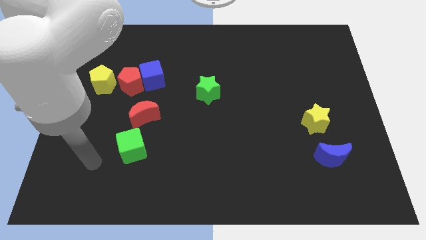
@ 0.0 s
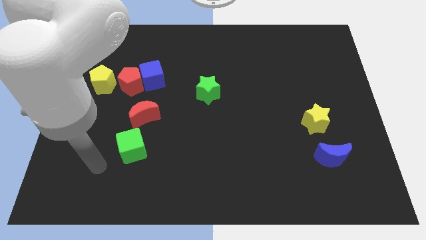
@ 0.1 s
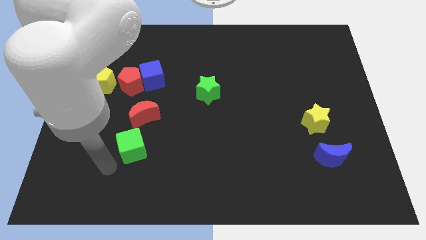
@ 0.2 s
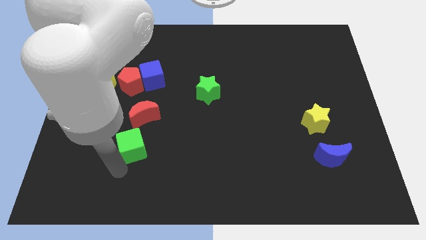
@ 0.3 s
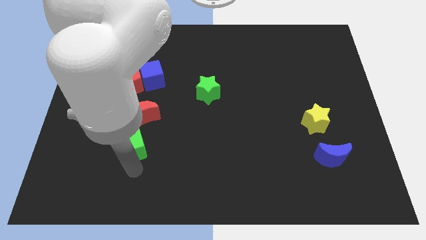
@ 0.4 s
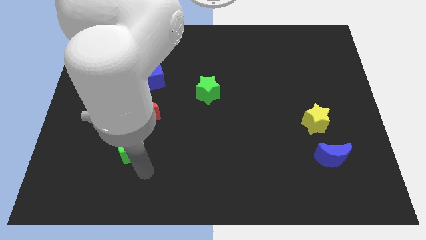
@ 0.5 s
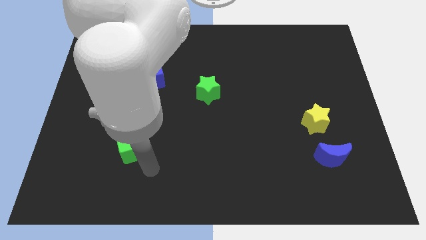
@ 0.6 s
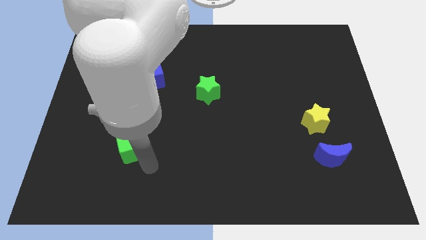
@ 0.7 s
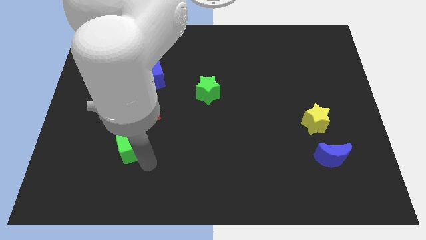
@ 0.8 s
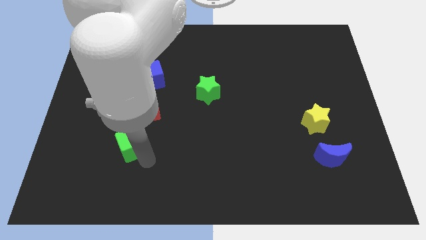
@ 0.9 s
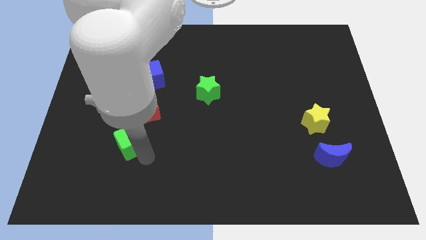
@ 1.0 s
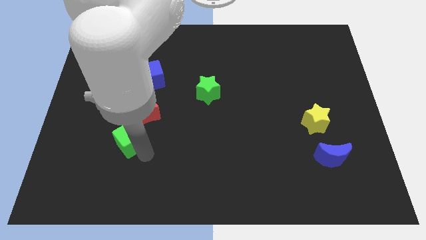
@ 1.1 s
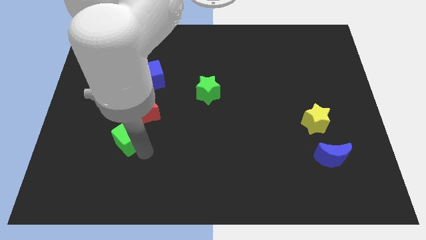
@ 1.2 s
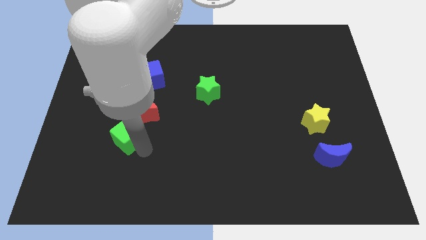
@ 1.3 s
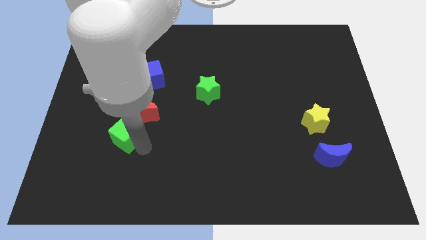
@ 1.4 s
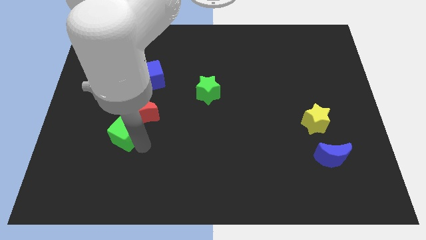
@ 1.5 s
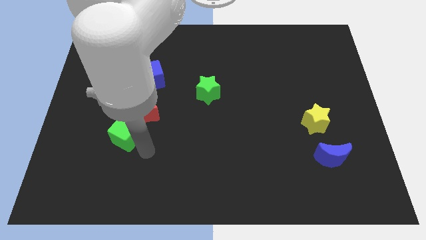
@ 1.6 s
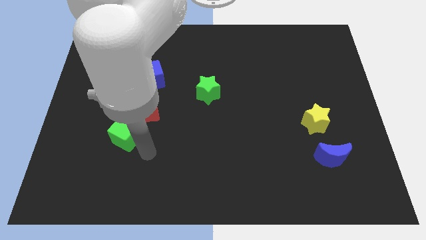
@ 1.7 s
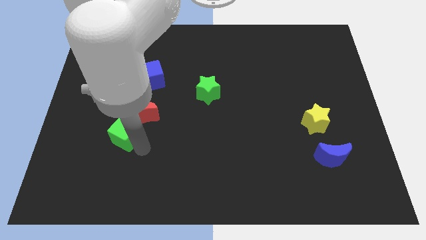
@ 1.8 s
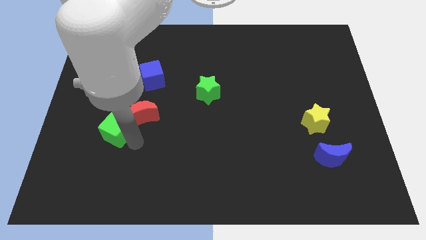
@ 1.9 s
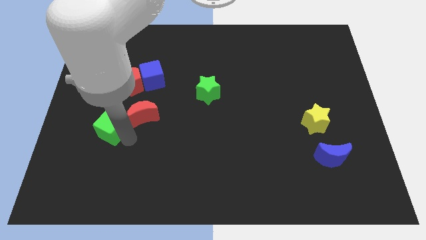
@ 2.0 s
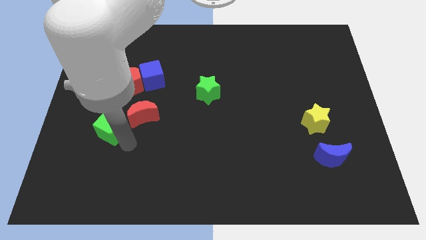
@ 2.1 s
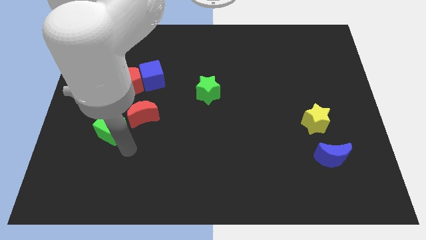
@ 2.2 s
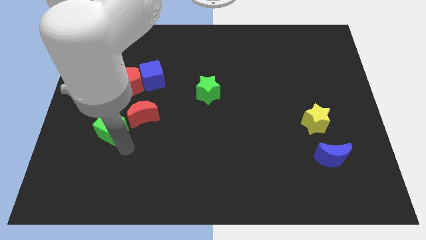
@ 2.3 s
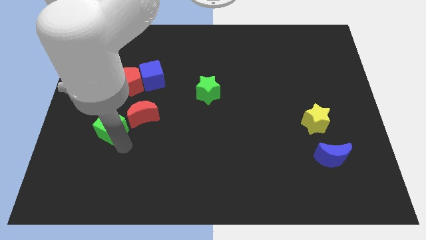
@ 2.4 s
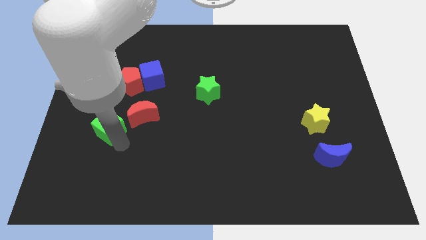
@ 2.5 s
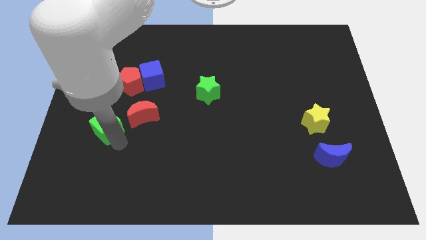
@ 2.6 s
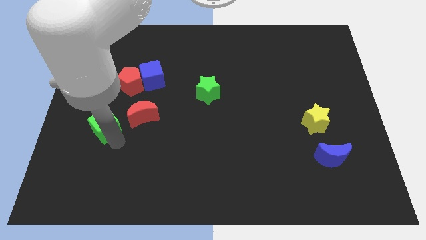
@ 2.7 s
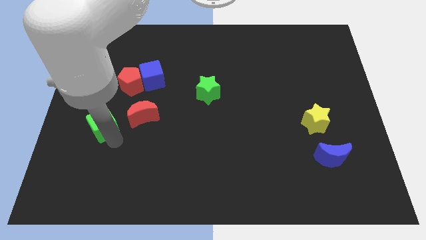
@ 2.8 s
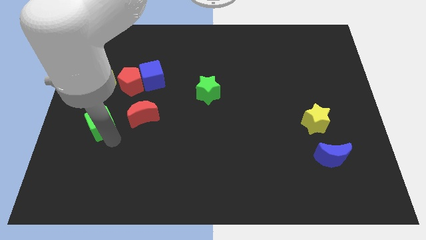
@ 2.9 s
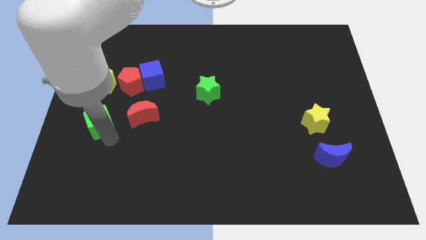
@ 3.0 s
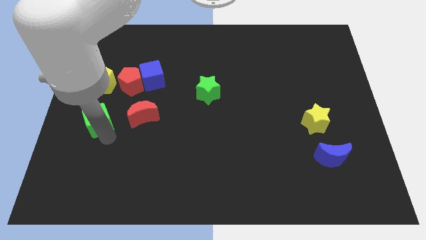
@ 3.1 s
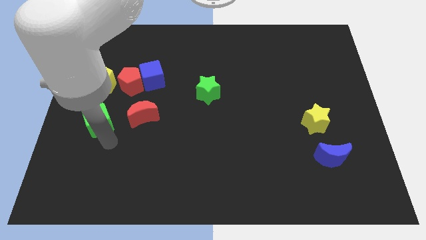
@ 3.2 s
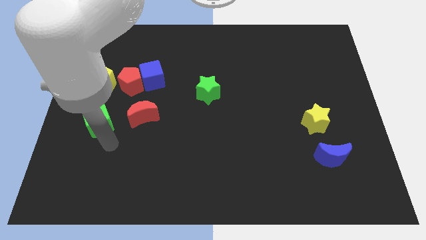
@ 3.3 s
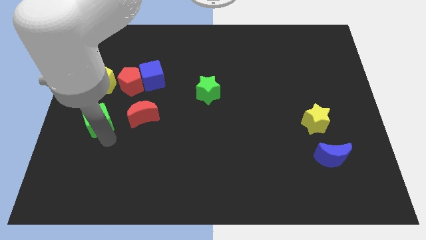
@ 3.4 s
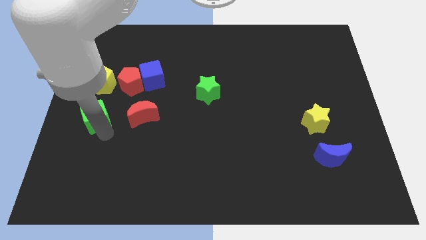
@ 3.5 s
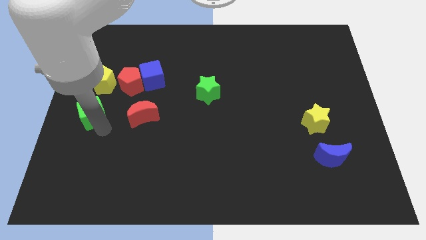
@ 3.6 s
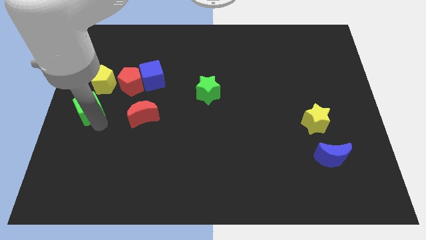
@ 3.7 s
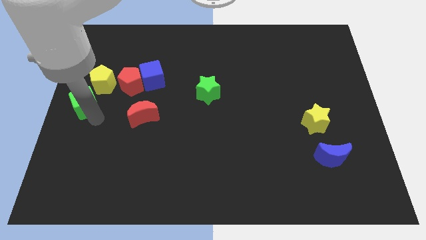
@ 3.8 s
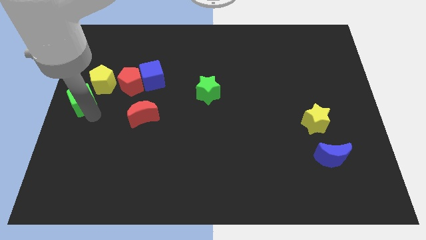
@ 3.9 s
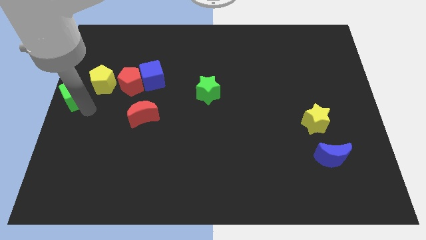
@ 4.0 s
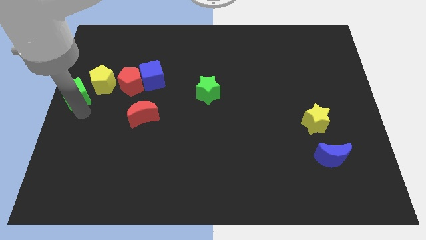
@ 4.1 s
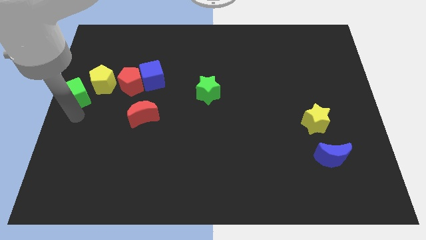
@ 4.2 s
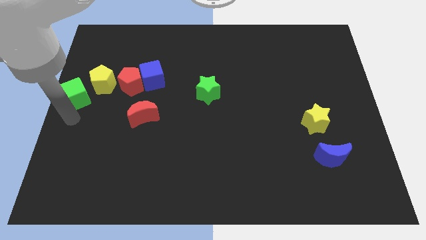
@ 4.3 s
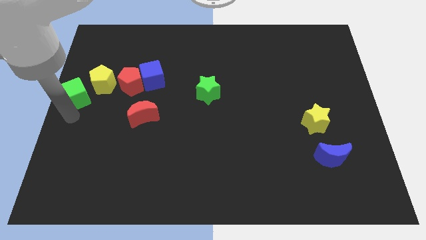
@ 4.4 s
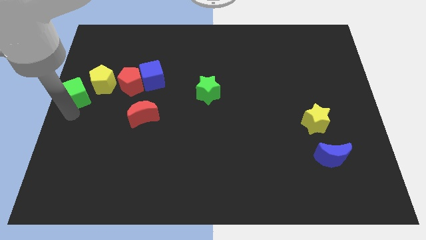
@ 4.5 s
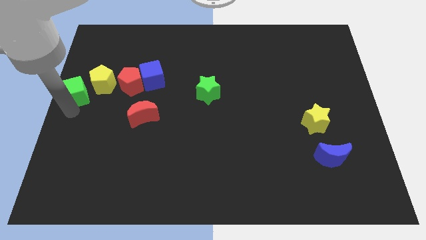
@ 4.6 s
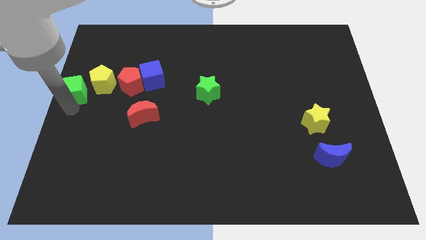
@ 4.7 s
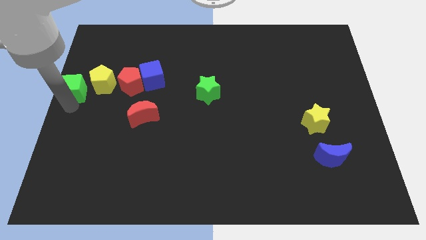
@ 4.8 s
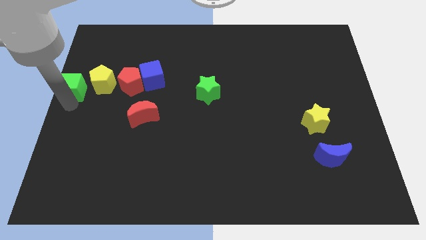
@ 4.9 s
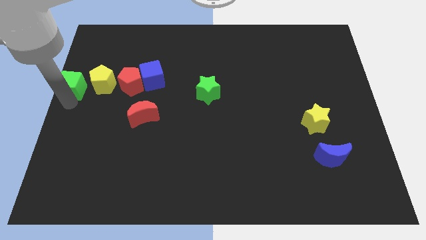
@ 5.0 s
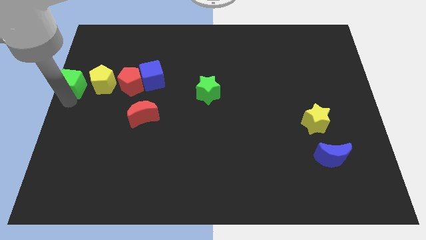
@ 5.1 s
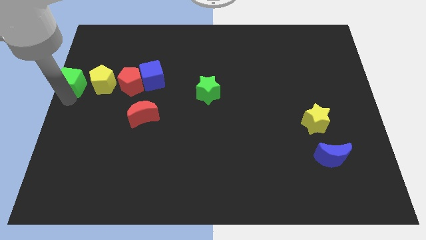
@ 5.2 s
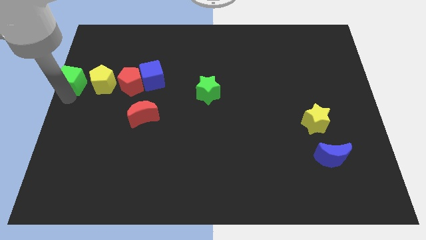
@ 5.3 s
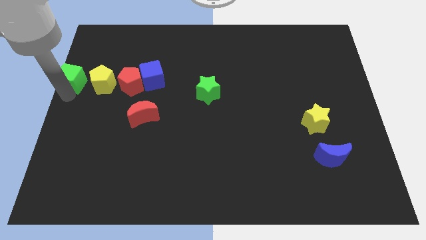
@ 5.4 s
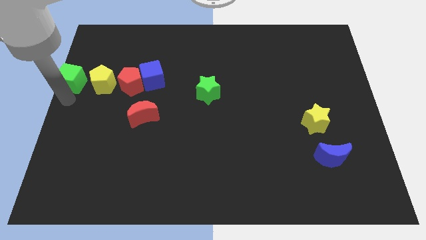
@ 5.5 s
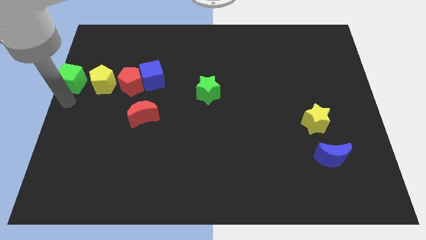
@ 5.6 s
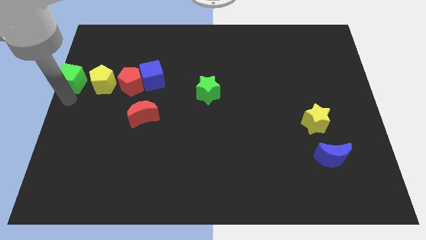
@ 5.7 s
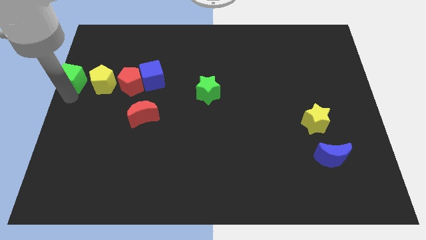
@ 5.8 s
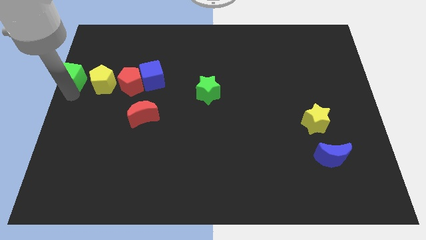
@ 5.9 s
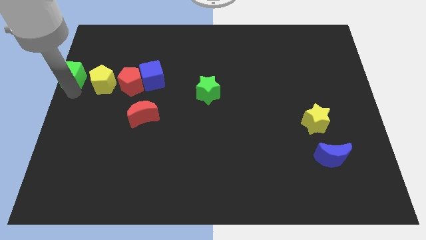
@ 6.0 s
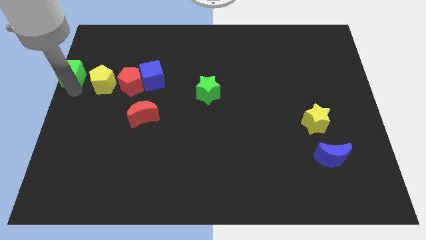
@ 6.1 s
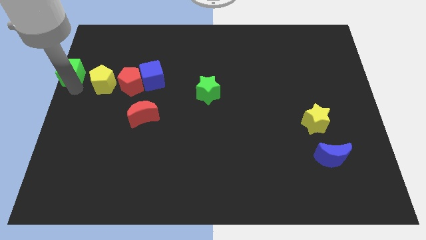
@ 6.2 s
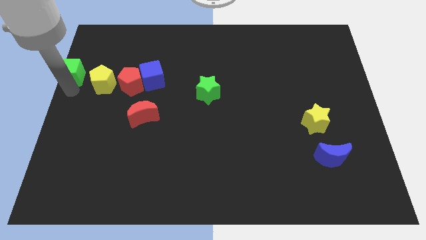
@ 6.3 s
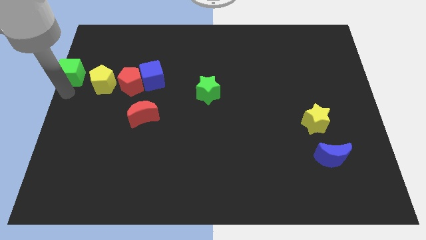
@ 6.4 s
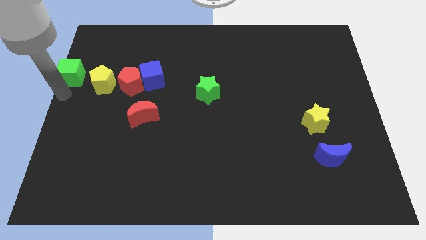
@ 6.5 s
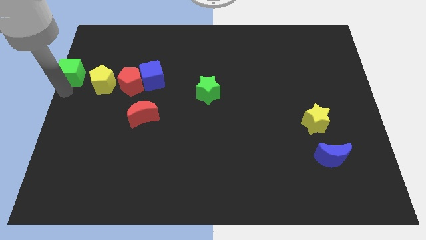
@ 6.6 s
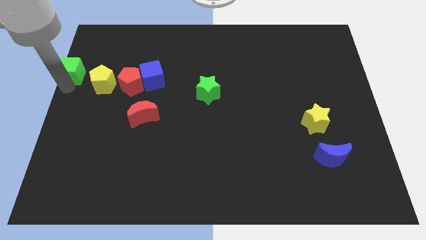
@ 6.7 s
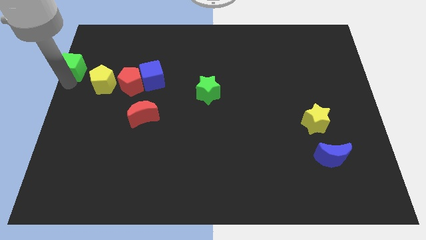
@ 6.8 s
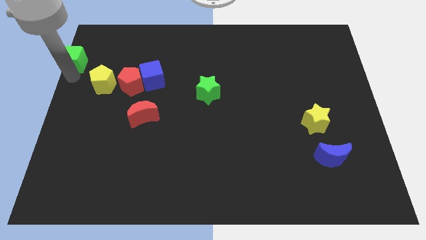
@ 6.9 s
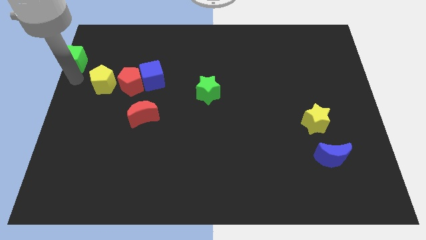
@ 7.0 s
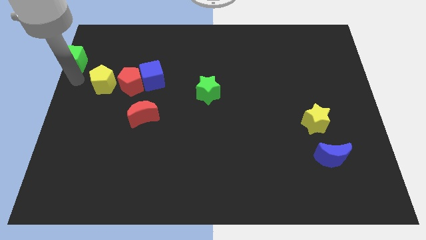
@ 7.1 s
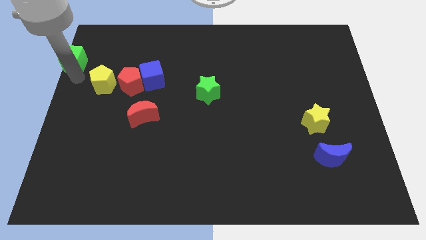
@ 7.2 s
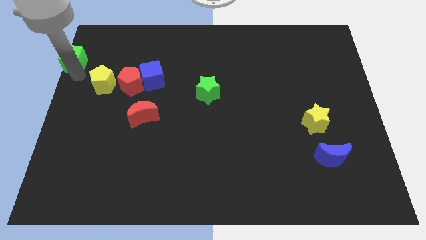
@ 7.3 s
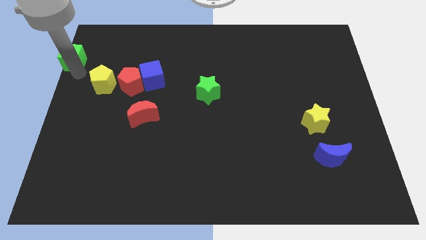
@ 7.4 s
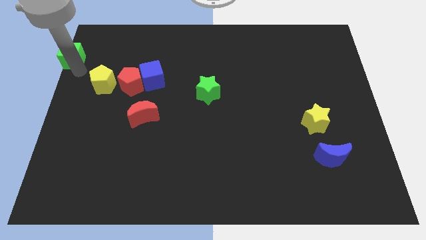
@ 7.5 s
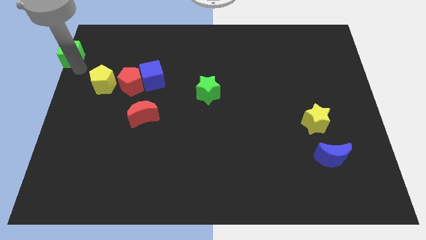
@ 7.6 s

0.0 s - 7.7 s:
push the green cube to the upper left corner
